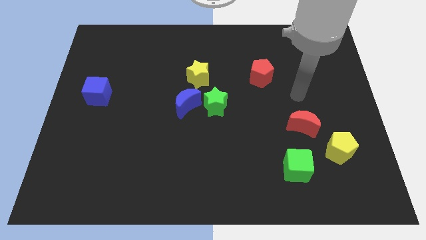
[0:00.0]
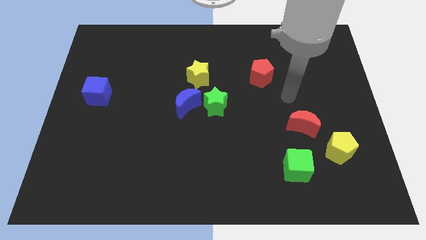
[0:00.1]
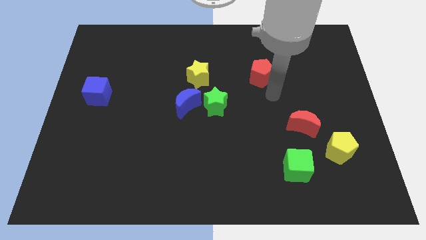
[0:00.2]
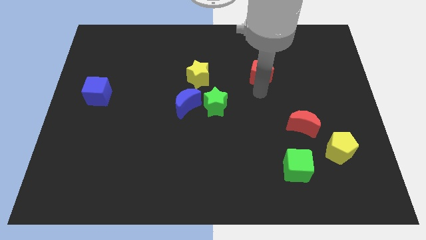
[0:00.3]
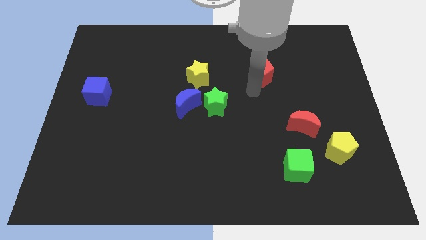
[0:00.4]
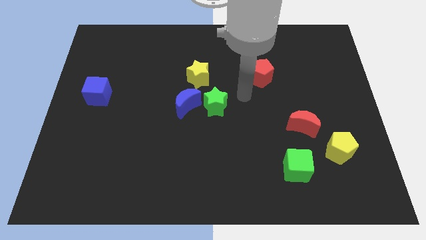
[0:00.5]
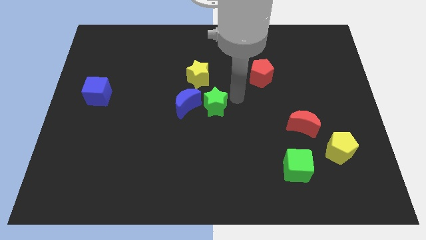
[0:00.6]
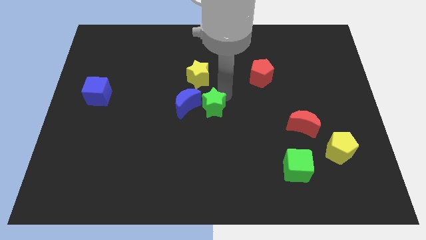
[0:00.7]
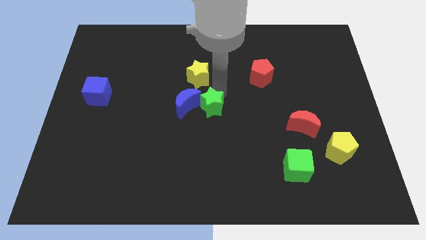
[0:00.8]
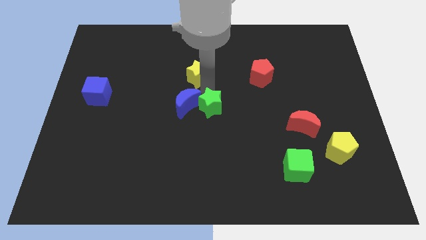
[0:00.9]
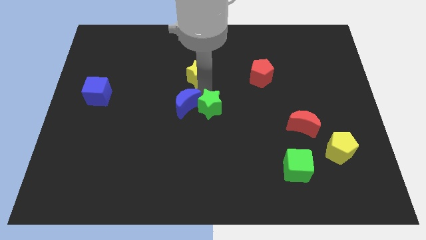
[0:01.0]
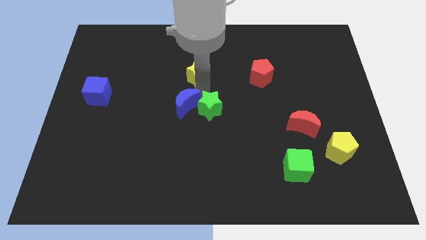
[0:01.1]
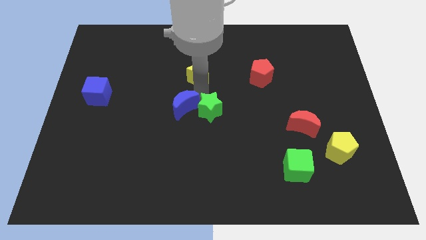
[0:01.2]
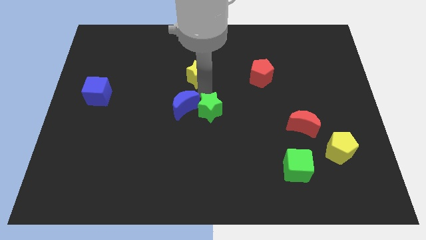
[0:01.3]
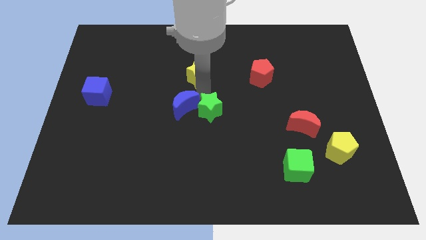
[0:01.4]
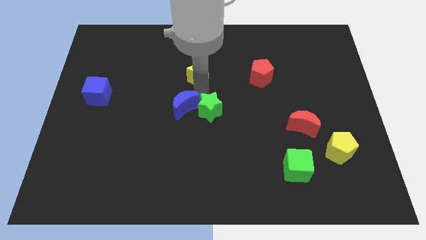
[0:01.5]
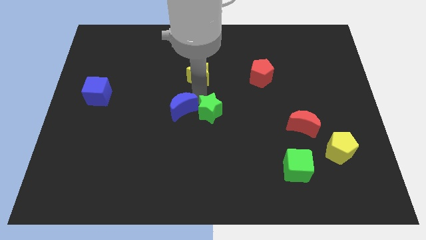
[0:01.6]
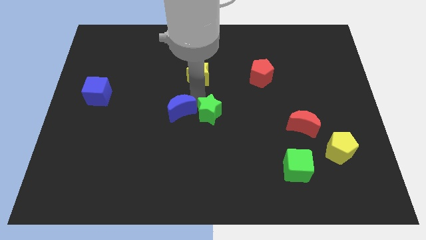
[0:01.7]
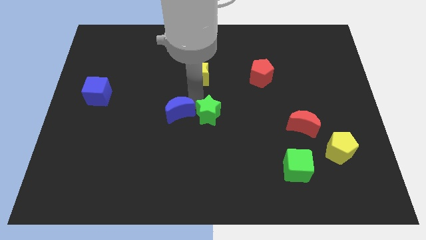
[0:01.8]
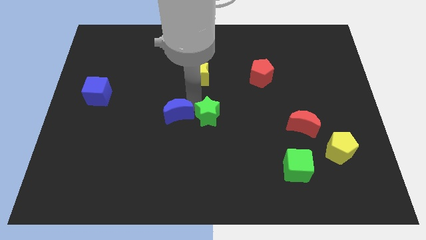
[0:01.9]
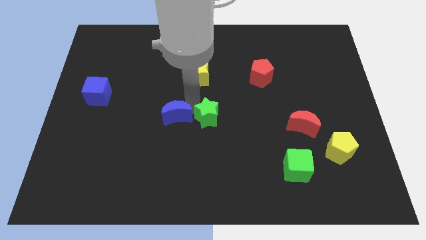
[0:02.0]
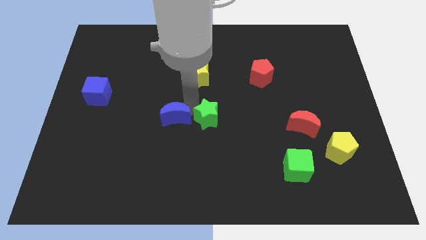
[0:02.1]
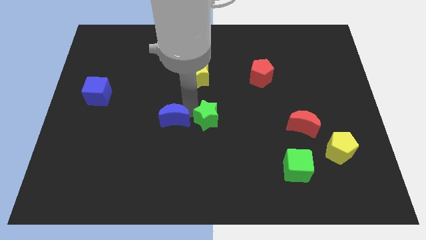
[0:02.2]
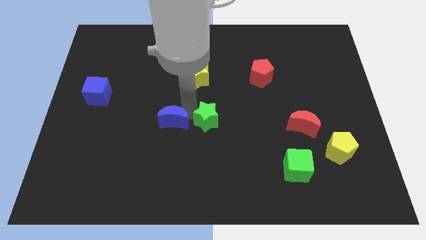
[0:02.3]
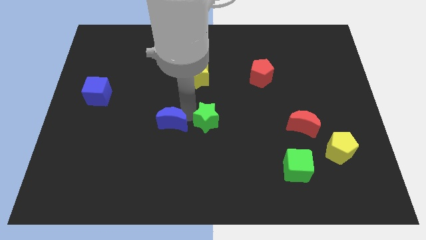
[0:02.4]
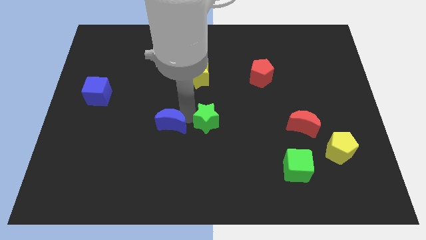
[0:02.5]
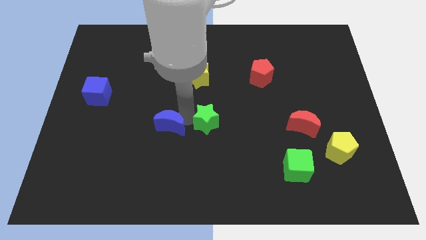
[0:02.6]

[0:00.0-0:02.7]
pull the blue moon apart from the green star and yellow star

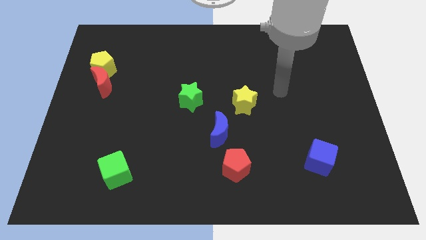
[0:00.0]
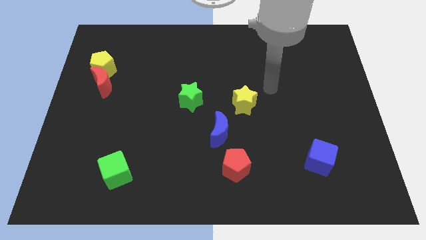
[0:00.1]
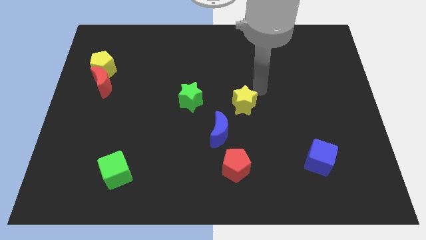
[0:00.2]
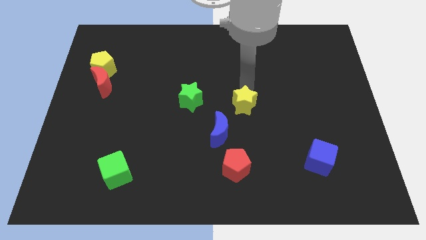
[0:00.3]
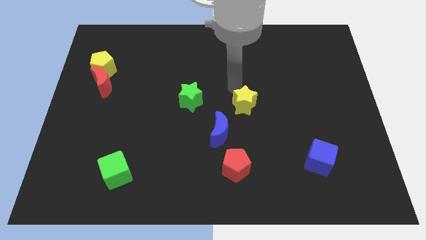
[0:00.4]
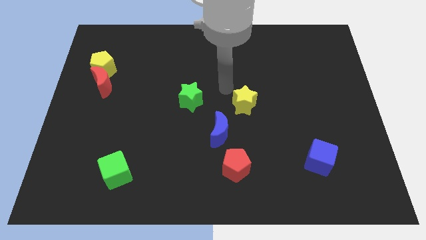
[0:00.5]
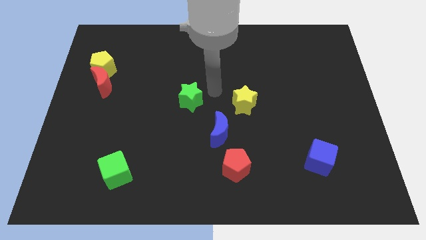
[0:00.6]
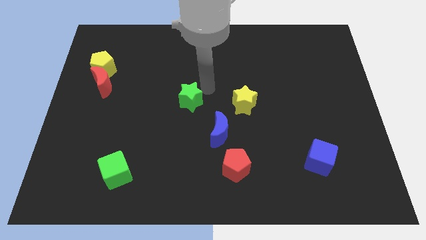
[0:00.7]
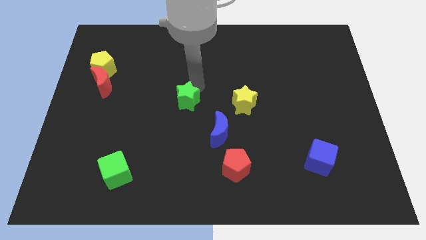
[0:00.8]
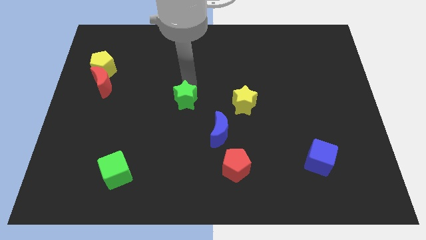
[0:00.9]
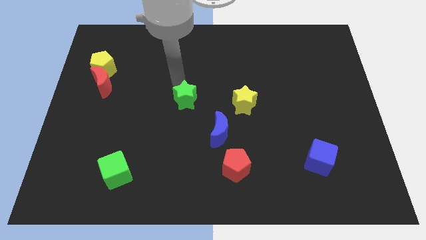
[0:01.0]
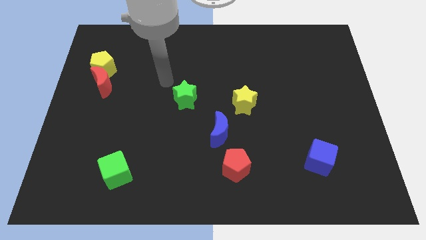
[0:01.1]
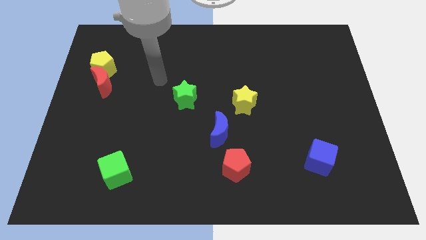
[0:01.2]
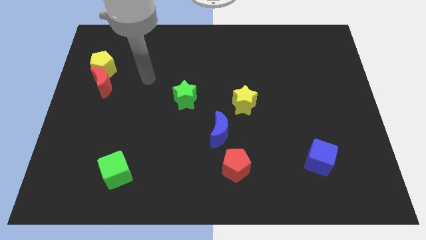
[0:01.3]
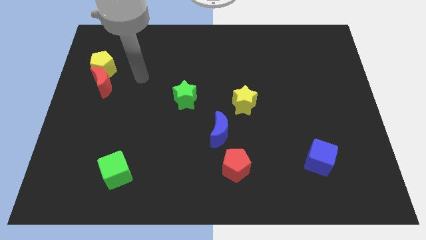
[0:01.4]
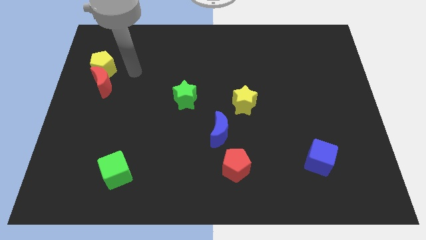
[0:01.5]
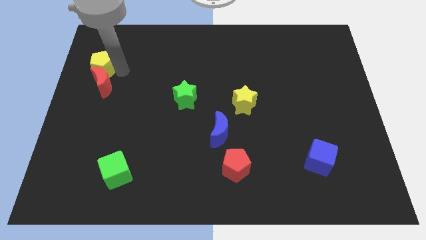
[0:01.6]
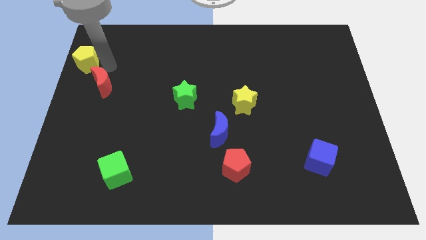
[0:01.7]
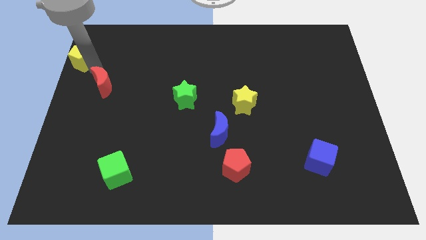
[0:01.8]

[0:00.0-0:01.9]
pull the red moon apart from the yellow pentagon

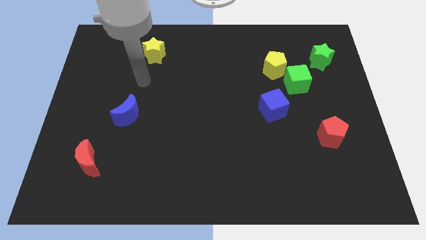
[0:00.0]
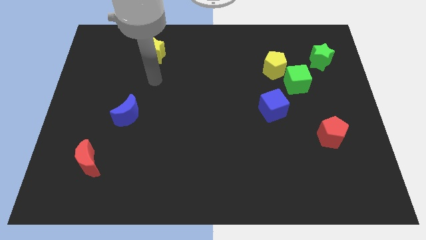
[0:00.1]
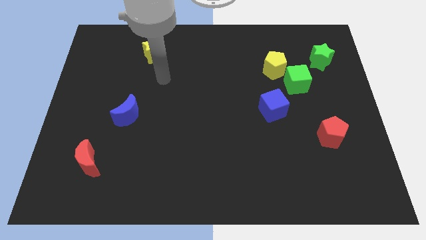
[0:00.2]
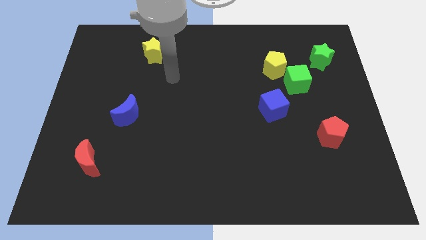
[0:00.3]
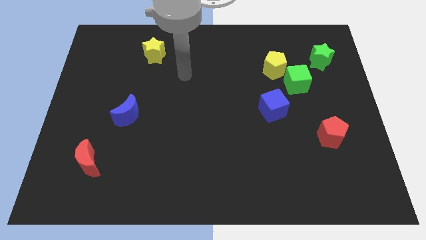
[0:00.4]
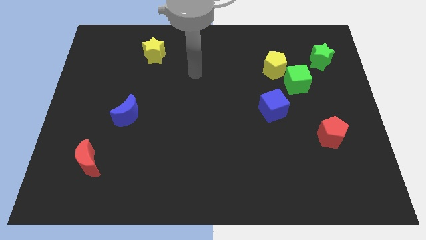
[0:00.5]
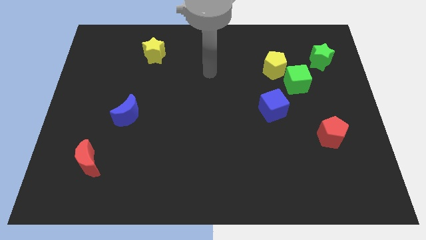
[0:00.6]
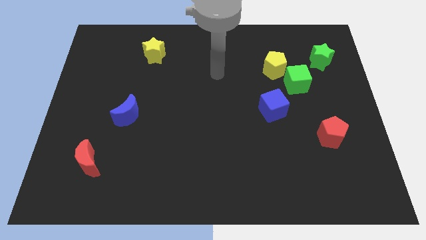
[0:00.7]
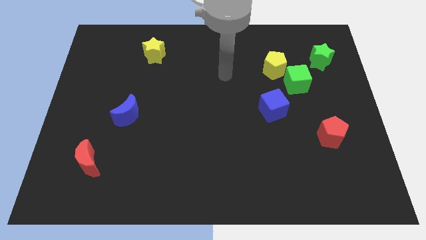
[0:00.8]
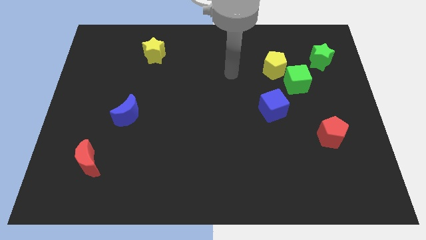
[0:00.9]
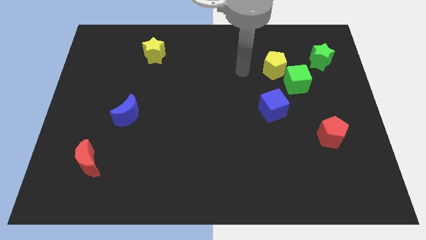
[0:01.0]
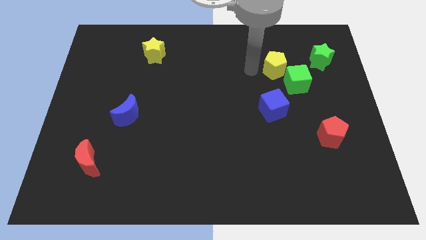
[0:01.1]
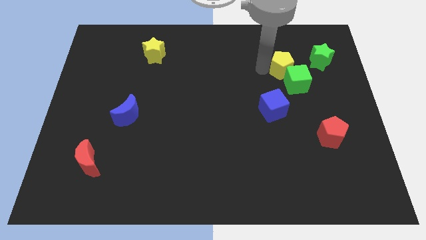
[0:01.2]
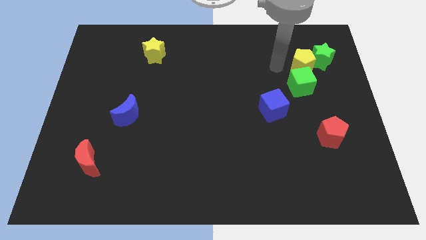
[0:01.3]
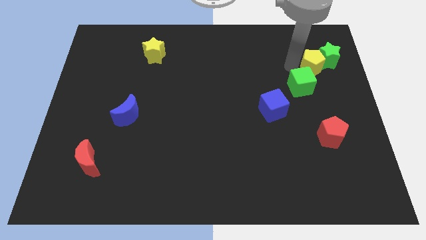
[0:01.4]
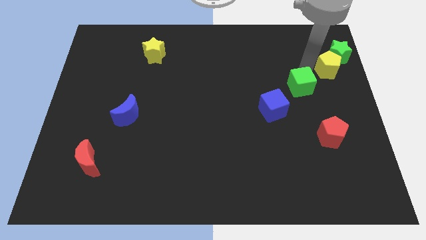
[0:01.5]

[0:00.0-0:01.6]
separate the green cube from the yellow pentagon

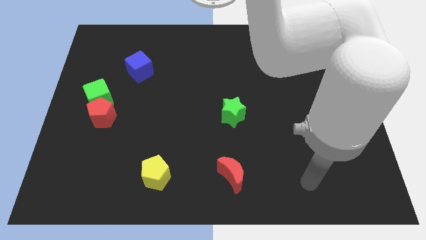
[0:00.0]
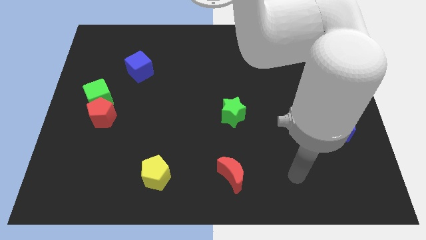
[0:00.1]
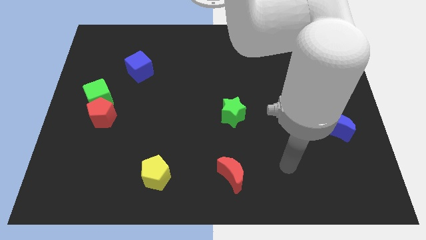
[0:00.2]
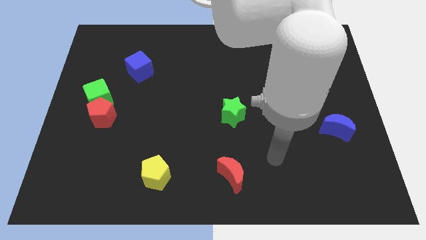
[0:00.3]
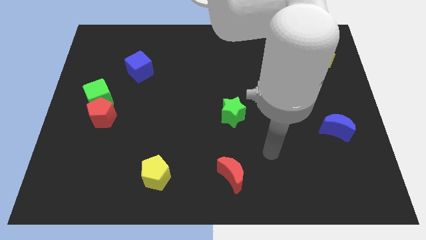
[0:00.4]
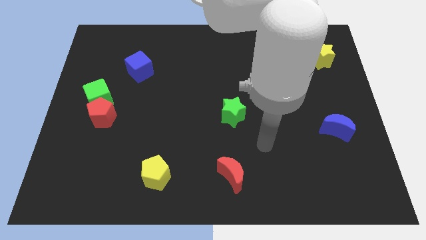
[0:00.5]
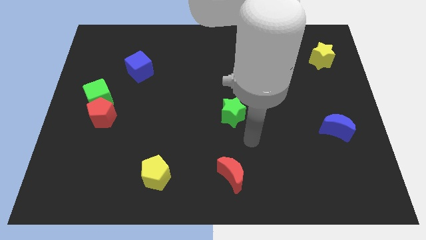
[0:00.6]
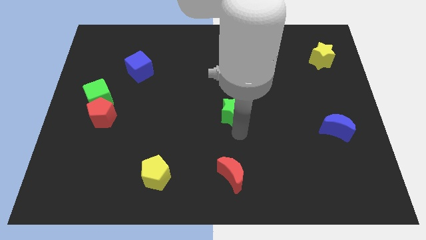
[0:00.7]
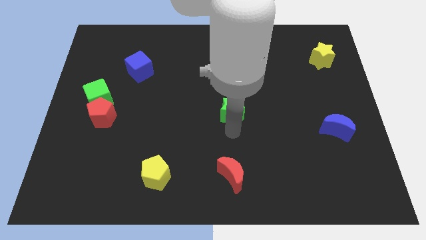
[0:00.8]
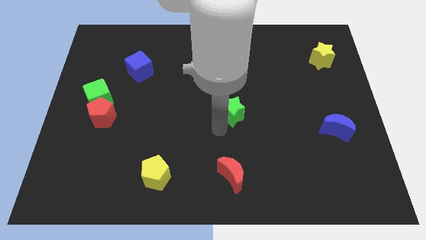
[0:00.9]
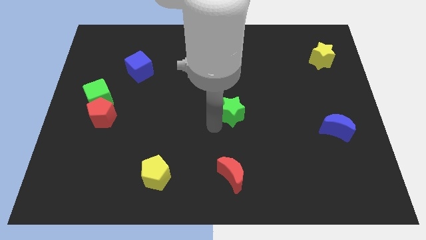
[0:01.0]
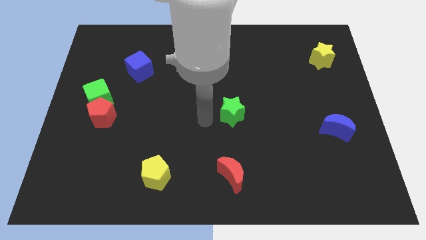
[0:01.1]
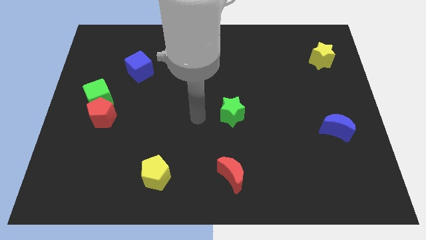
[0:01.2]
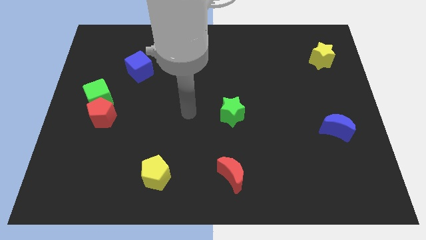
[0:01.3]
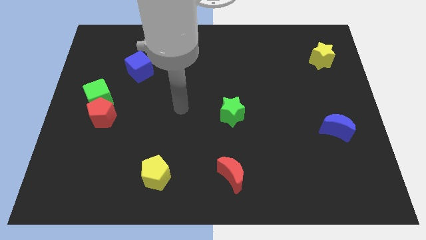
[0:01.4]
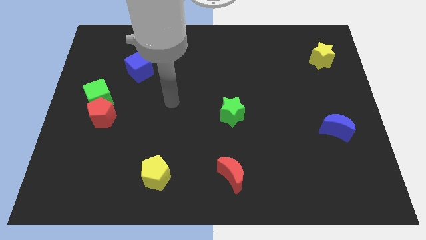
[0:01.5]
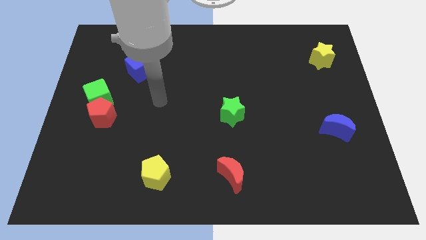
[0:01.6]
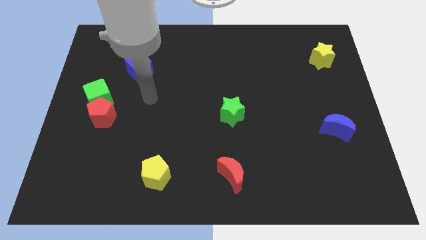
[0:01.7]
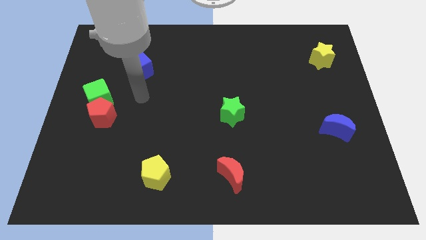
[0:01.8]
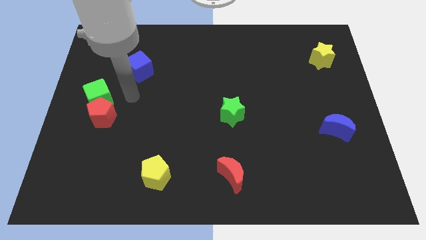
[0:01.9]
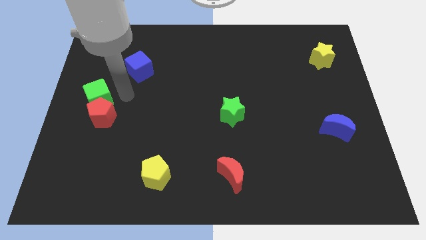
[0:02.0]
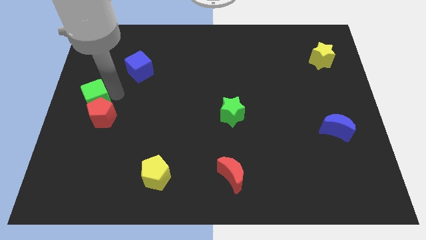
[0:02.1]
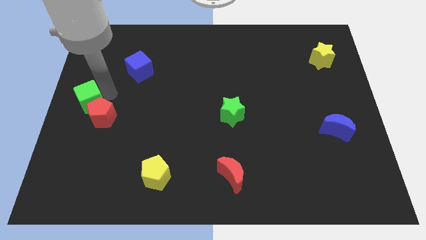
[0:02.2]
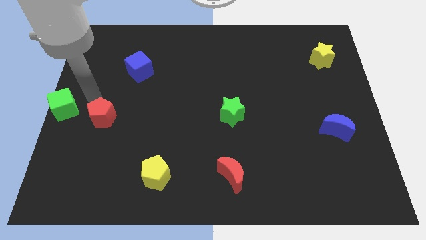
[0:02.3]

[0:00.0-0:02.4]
move the red pentagon away from the green cube

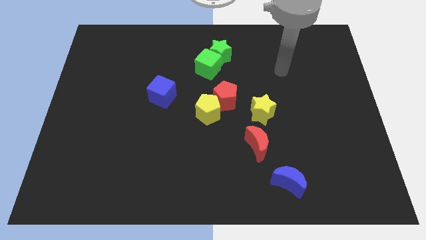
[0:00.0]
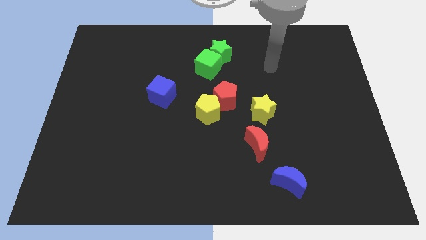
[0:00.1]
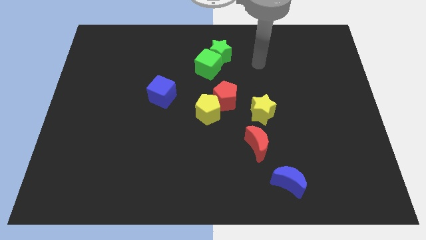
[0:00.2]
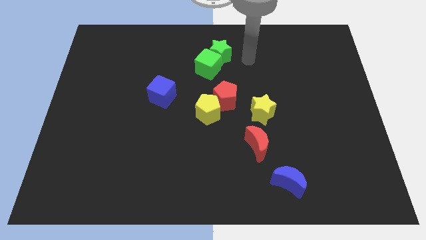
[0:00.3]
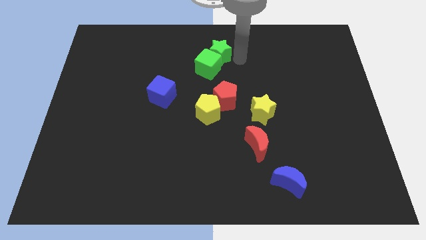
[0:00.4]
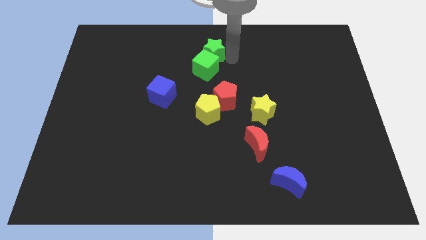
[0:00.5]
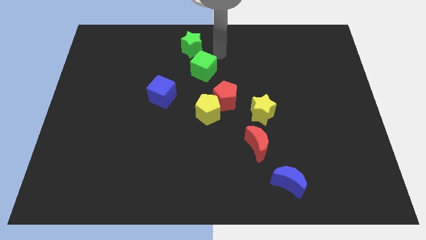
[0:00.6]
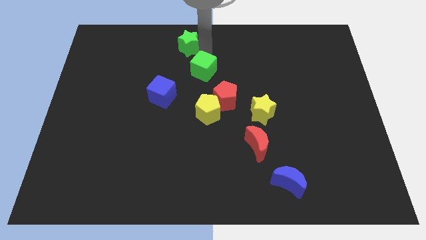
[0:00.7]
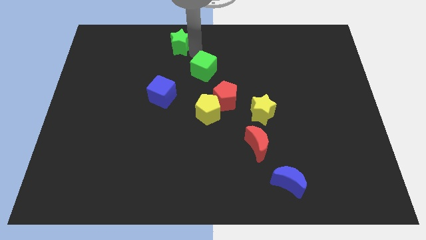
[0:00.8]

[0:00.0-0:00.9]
move the green cube away from the green star
